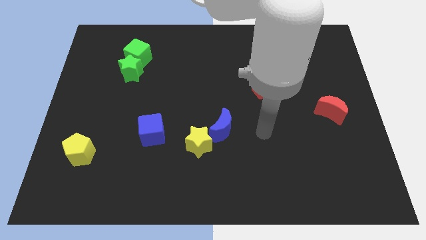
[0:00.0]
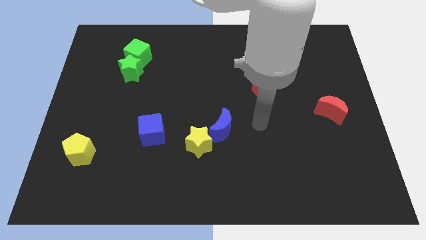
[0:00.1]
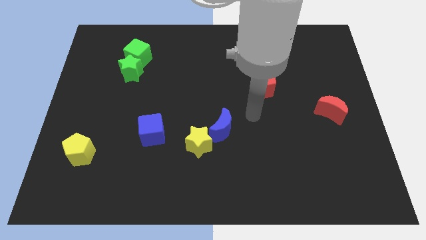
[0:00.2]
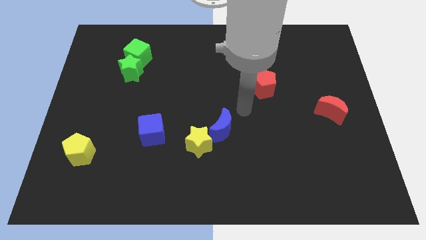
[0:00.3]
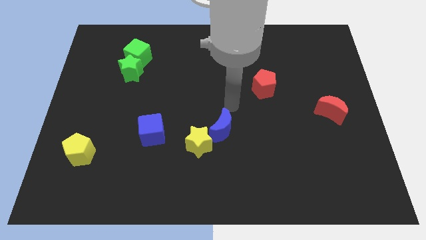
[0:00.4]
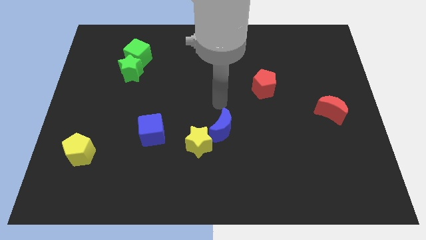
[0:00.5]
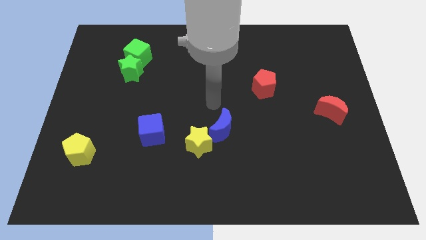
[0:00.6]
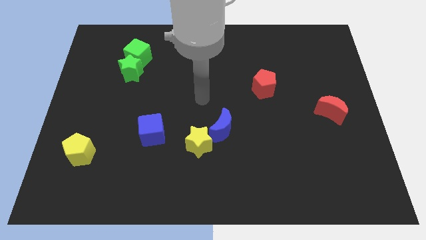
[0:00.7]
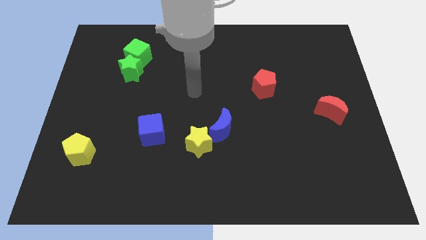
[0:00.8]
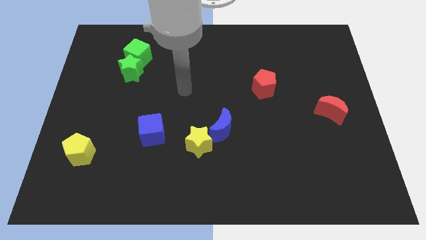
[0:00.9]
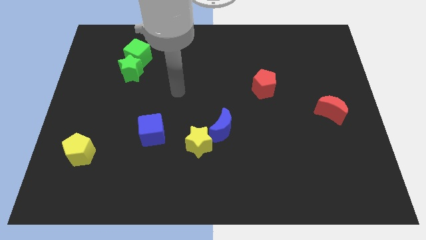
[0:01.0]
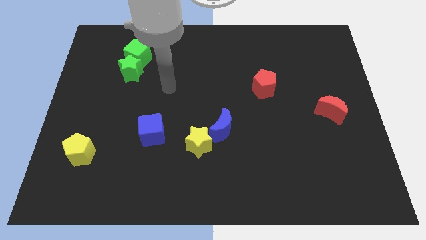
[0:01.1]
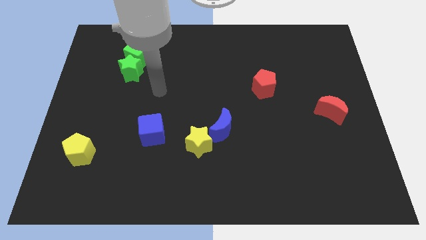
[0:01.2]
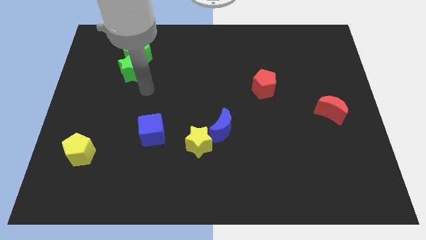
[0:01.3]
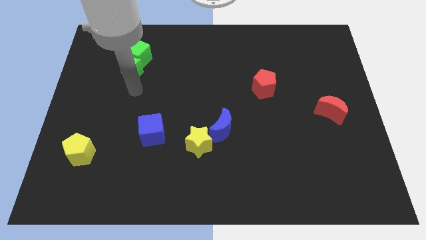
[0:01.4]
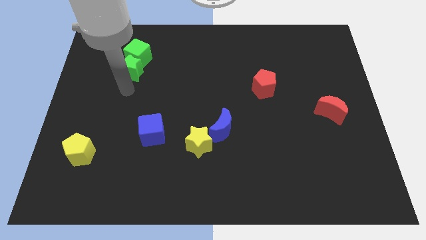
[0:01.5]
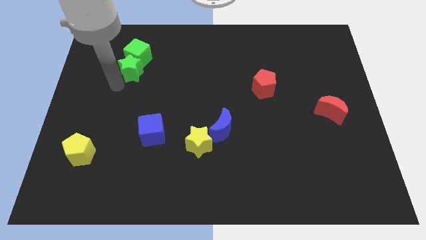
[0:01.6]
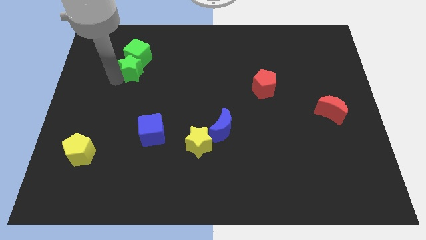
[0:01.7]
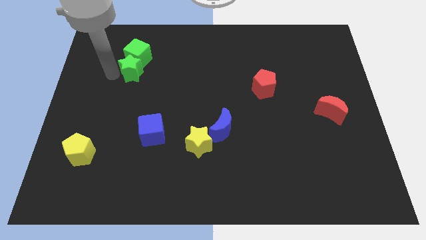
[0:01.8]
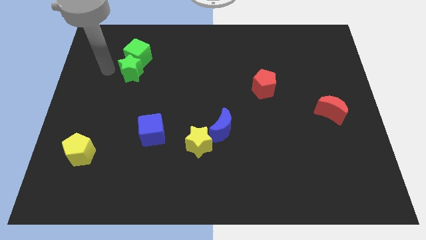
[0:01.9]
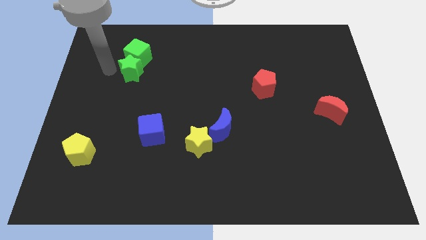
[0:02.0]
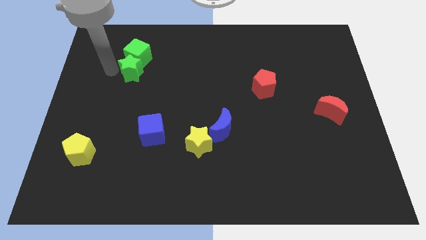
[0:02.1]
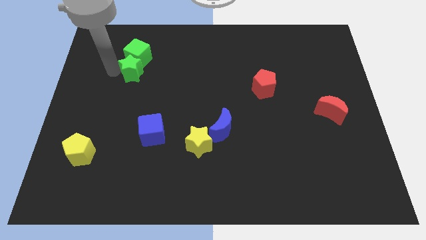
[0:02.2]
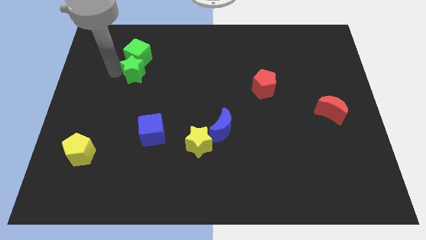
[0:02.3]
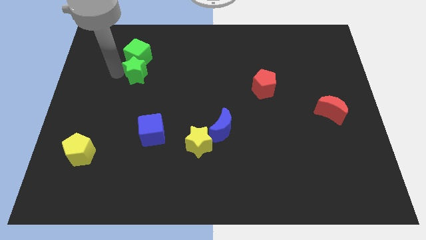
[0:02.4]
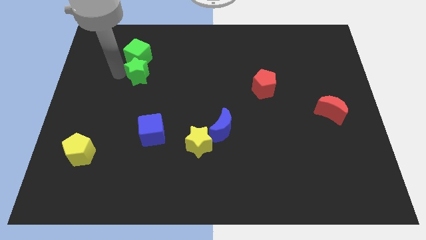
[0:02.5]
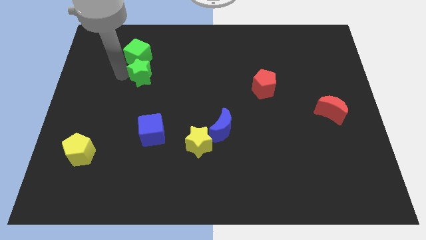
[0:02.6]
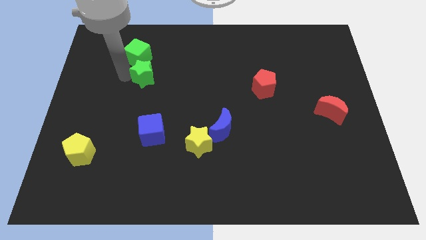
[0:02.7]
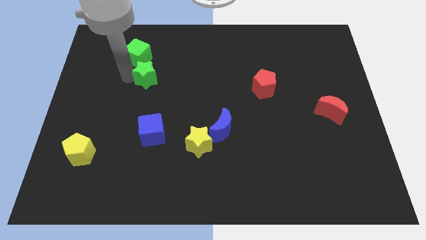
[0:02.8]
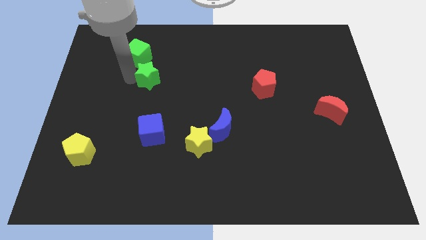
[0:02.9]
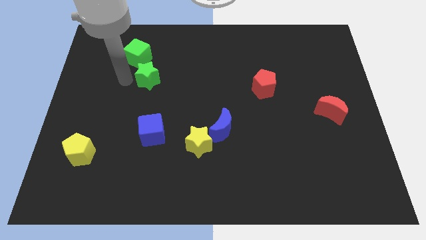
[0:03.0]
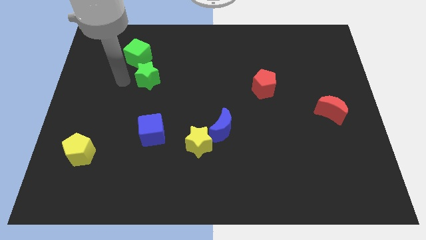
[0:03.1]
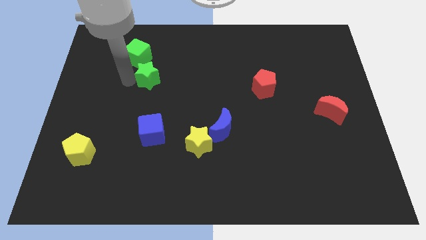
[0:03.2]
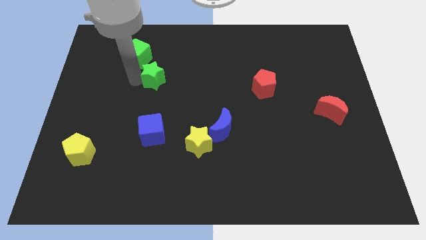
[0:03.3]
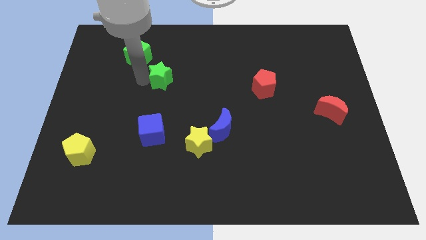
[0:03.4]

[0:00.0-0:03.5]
slightly push the green star to the right

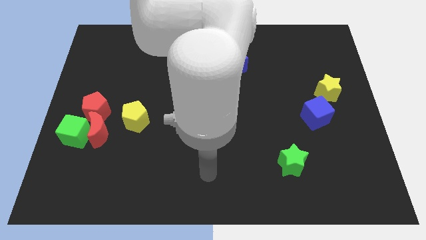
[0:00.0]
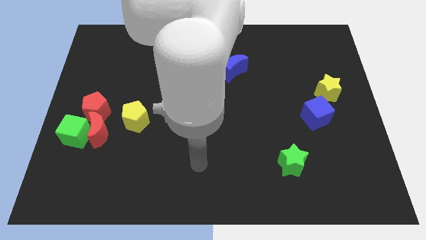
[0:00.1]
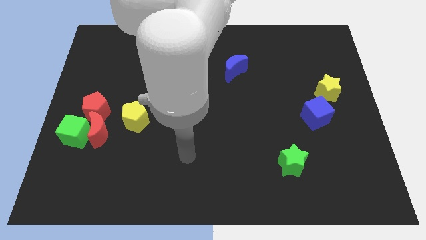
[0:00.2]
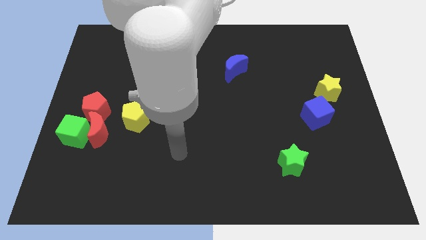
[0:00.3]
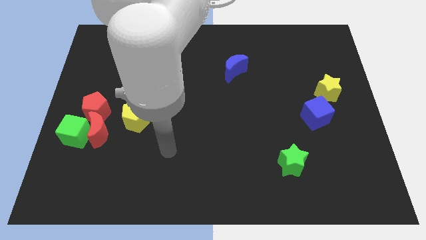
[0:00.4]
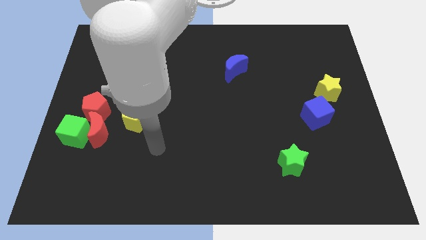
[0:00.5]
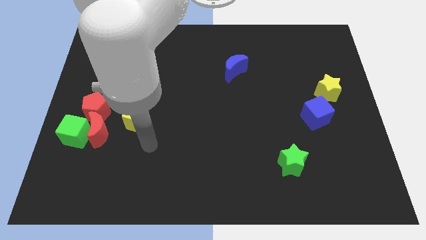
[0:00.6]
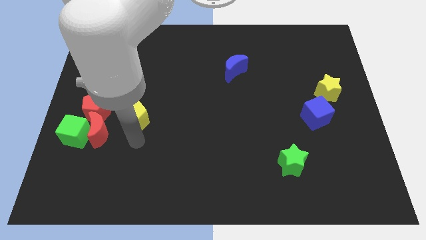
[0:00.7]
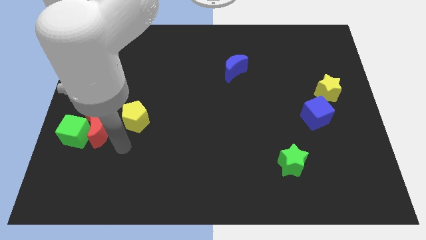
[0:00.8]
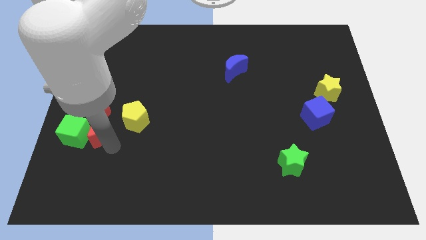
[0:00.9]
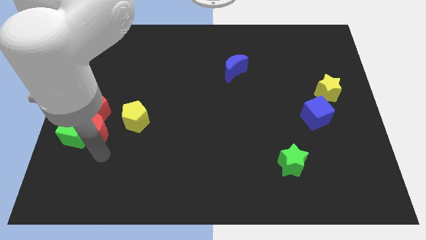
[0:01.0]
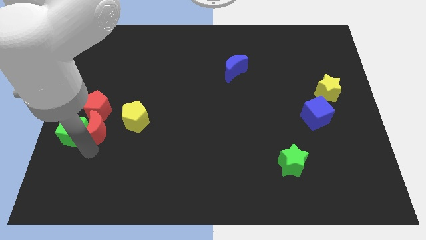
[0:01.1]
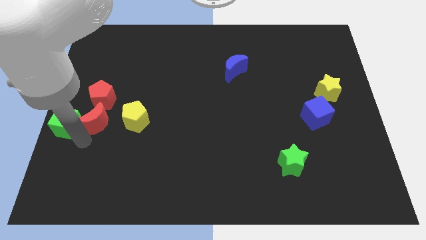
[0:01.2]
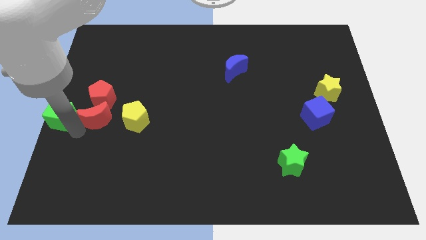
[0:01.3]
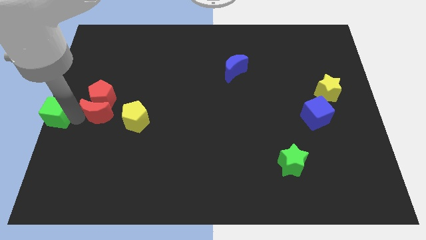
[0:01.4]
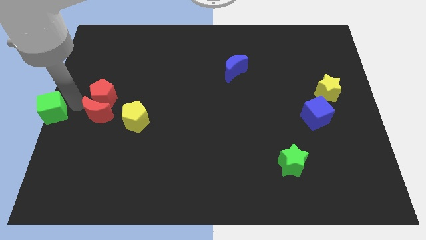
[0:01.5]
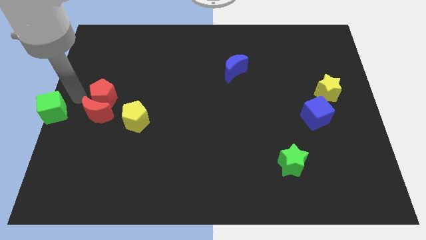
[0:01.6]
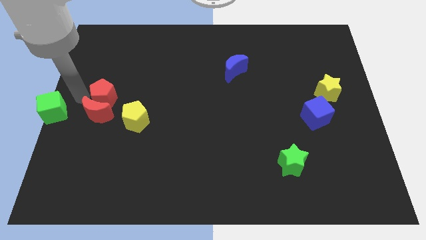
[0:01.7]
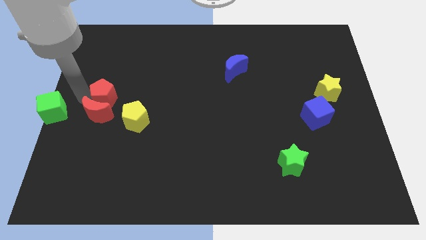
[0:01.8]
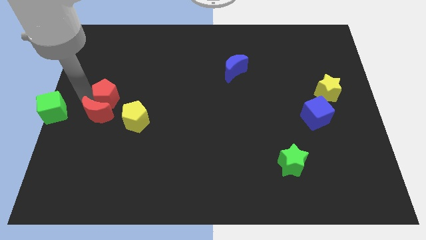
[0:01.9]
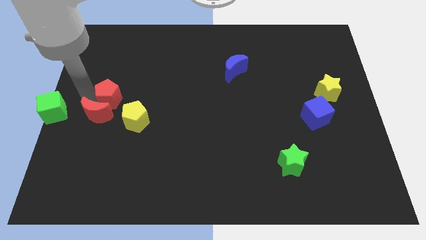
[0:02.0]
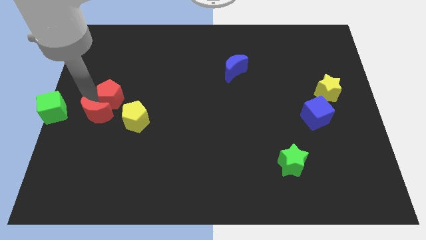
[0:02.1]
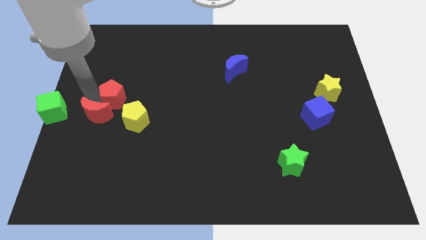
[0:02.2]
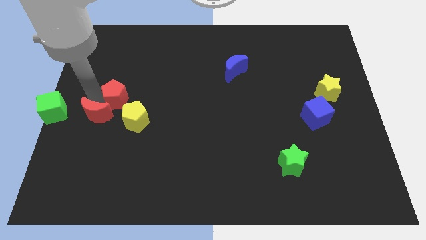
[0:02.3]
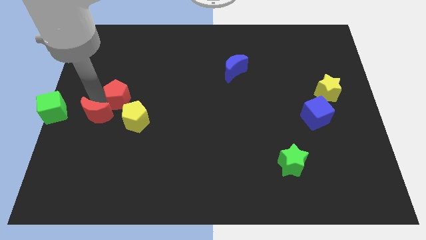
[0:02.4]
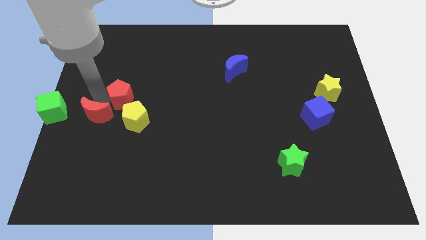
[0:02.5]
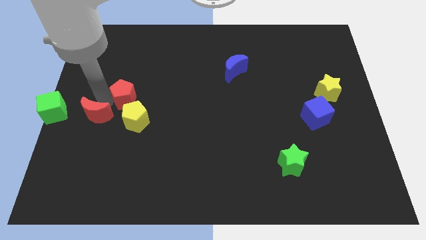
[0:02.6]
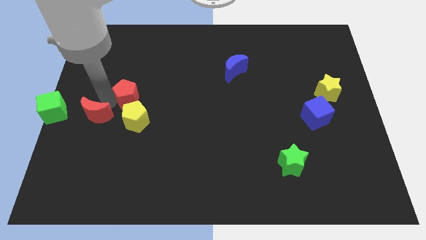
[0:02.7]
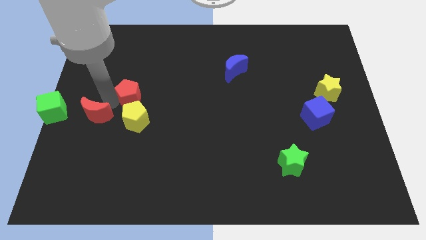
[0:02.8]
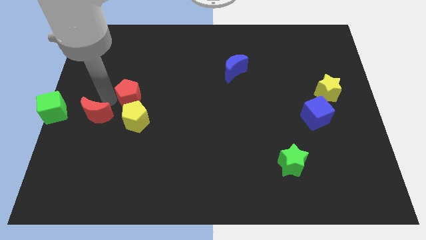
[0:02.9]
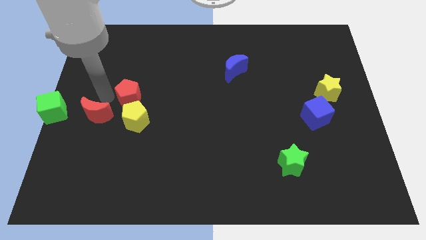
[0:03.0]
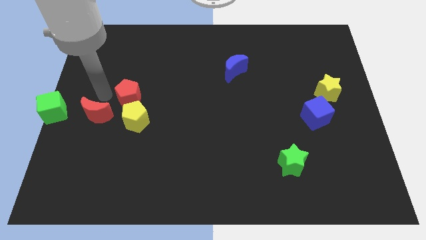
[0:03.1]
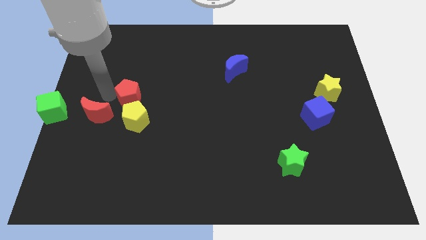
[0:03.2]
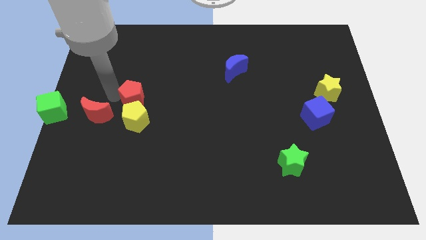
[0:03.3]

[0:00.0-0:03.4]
slightly move the red pentagon to the right

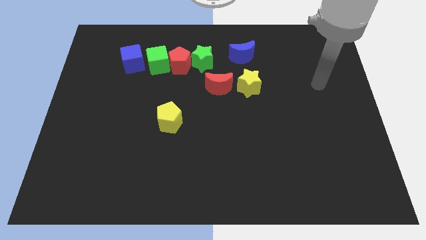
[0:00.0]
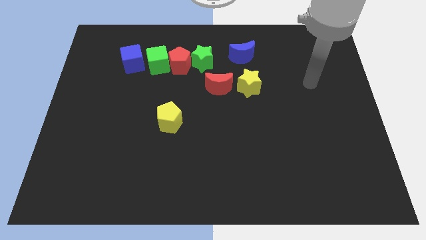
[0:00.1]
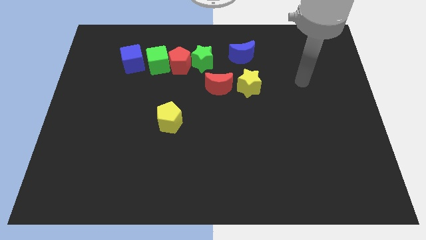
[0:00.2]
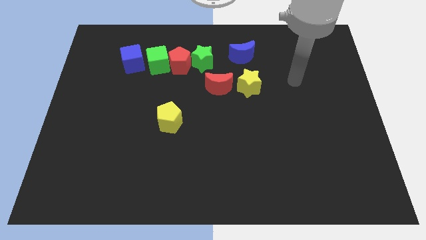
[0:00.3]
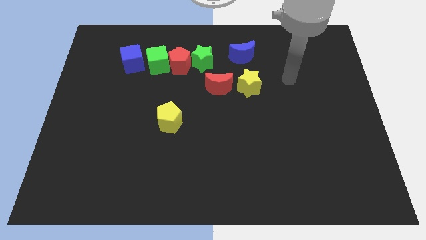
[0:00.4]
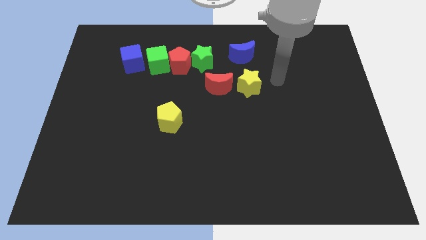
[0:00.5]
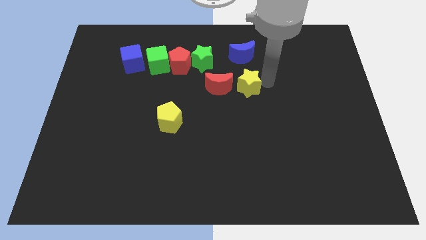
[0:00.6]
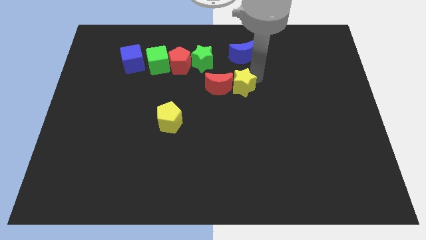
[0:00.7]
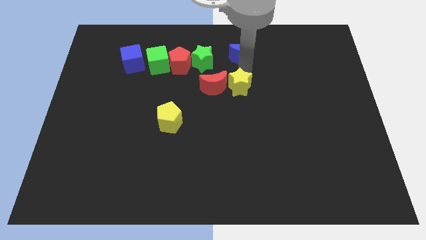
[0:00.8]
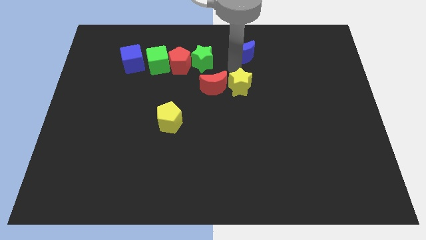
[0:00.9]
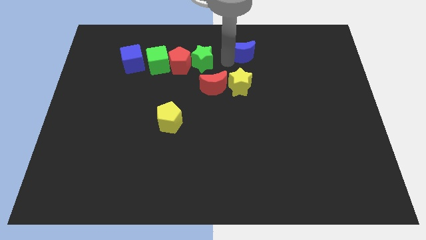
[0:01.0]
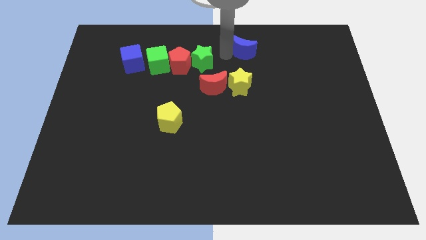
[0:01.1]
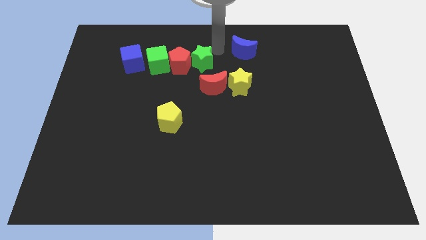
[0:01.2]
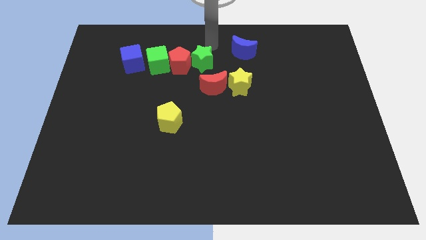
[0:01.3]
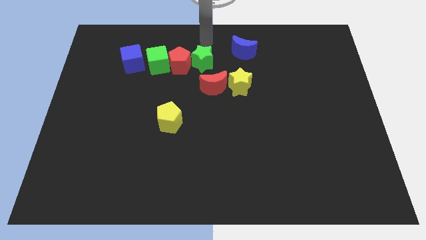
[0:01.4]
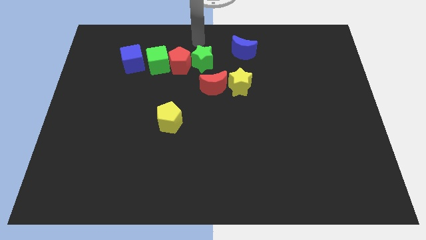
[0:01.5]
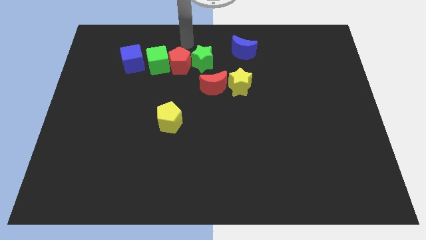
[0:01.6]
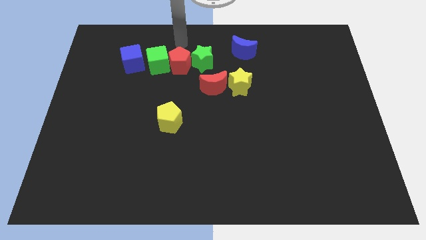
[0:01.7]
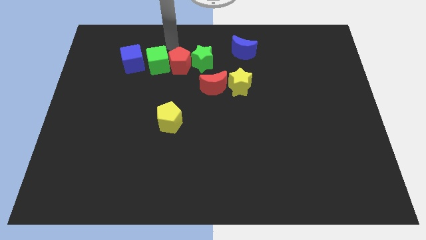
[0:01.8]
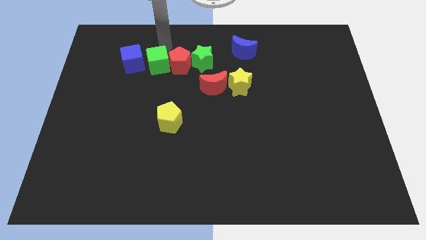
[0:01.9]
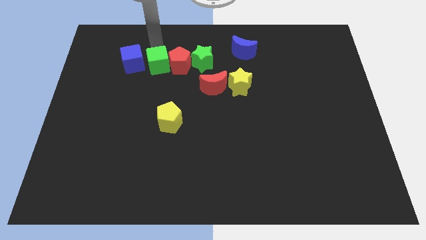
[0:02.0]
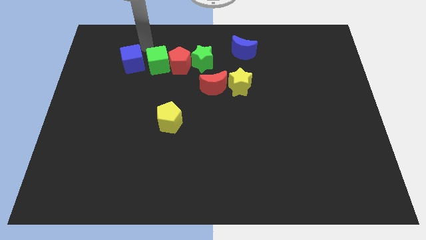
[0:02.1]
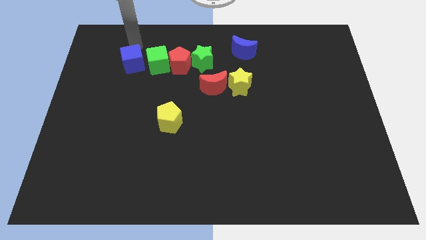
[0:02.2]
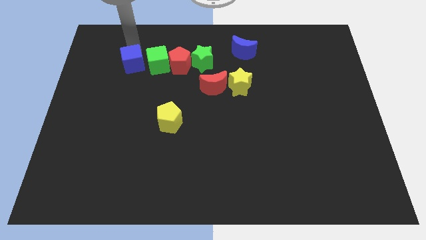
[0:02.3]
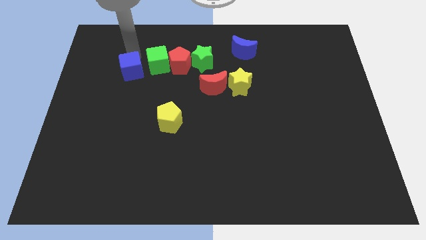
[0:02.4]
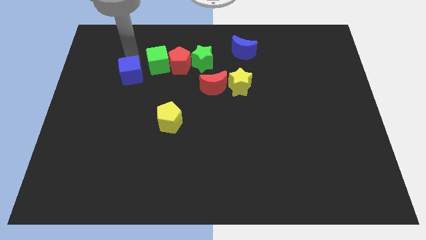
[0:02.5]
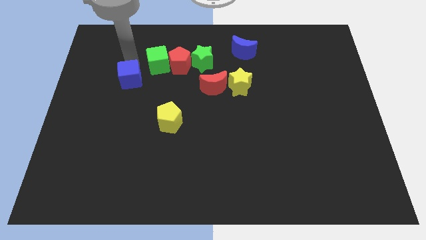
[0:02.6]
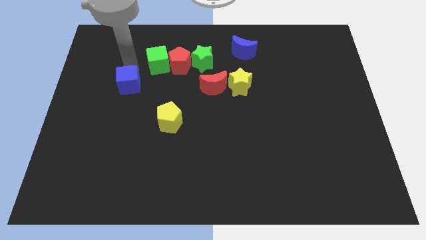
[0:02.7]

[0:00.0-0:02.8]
slightly move the blue cube downwards
